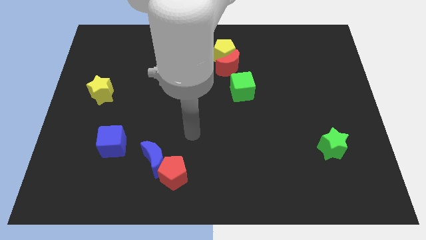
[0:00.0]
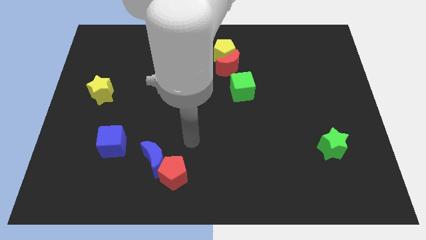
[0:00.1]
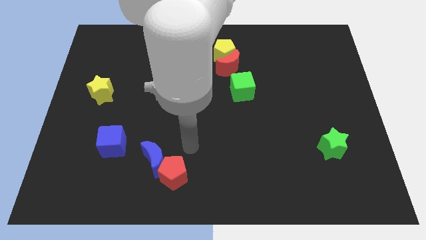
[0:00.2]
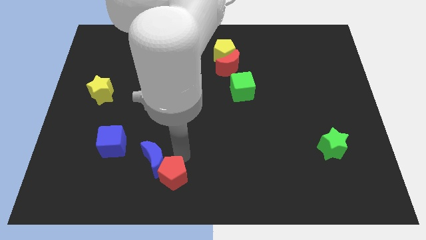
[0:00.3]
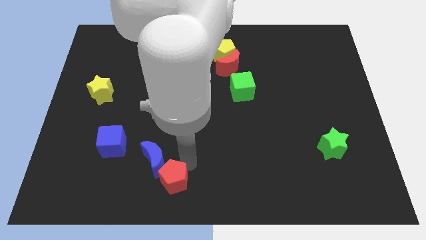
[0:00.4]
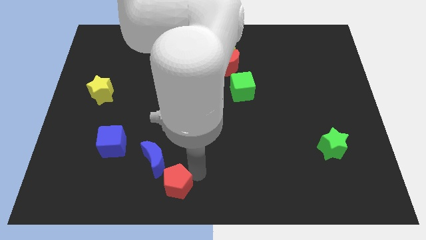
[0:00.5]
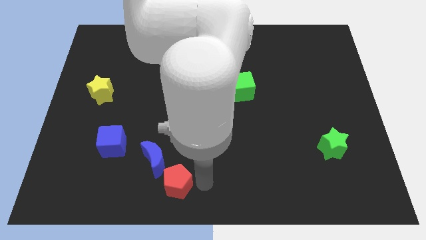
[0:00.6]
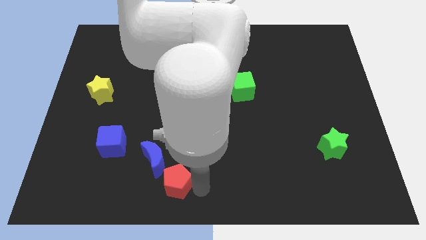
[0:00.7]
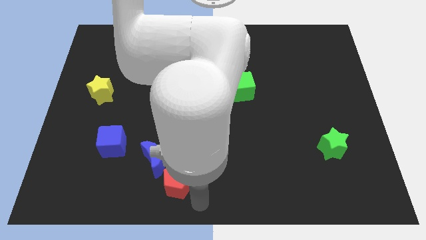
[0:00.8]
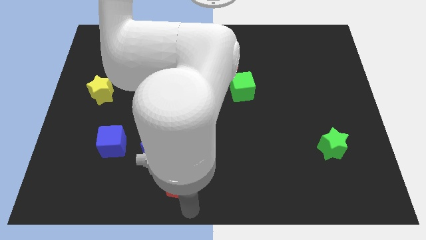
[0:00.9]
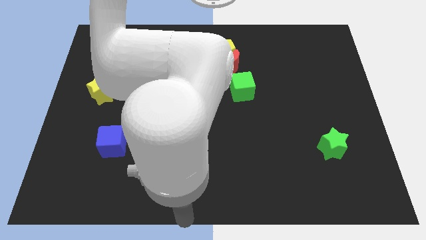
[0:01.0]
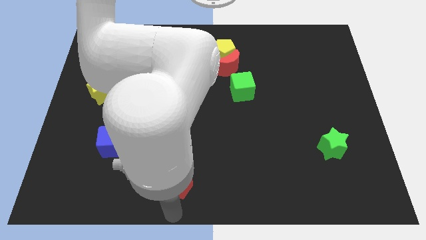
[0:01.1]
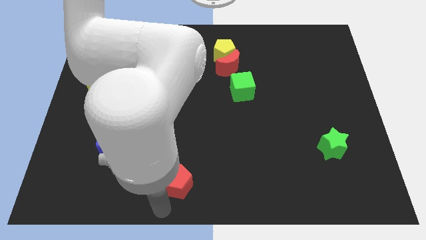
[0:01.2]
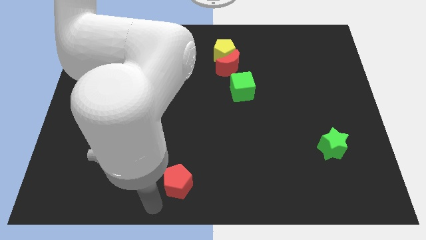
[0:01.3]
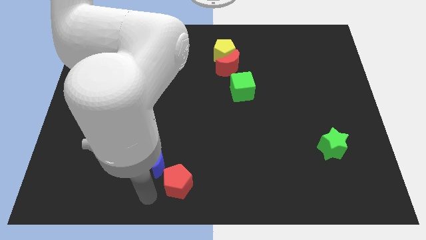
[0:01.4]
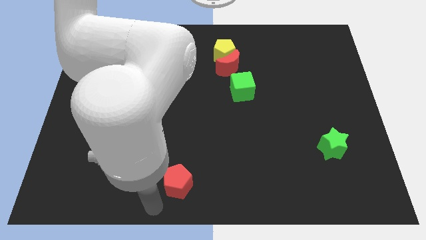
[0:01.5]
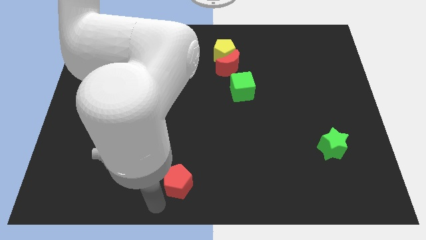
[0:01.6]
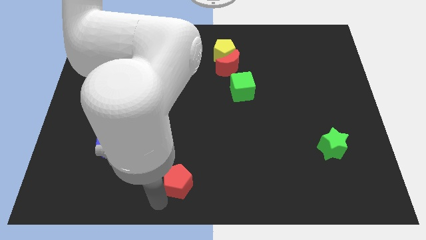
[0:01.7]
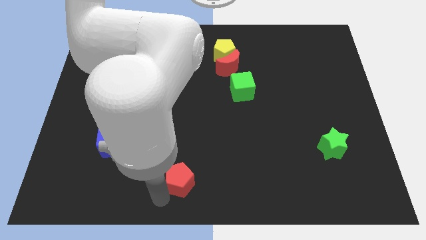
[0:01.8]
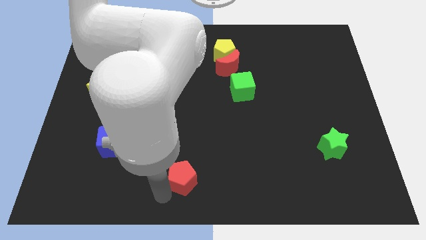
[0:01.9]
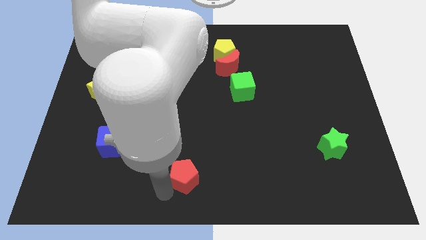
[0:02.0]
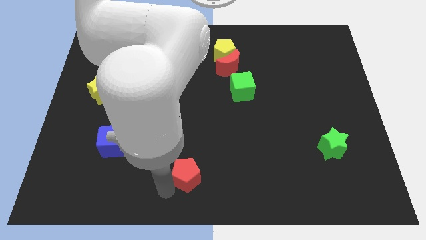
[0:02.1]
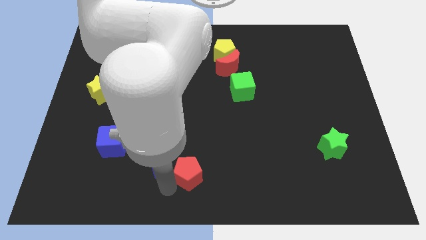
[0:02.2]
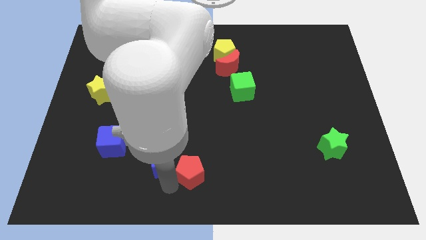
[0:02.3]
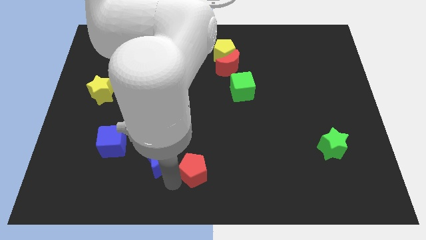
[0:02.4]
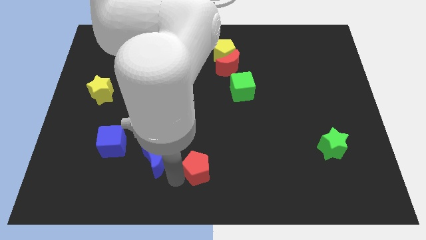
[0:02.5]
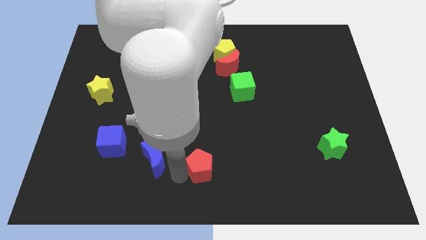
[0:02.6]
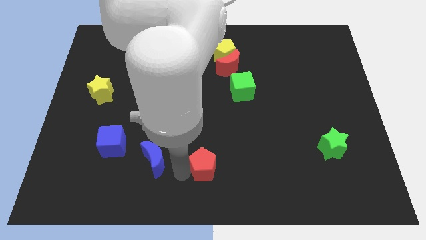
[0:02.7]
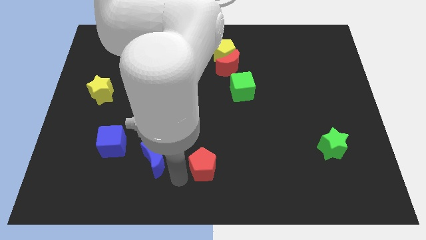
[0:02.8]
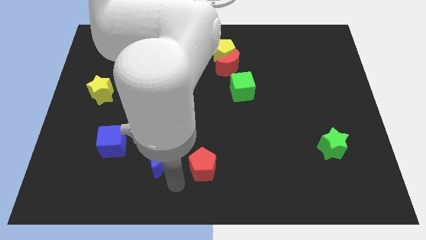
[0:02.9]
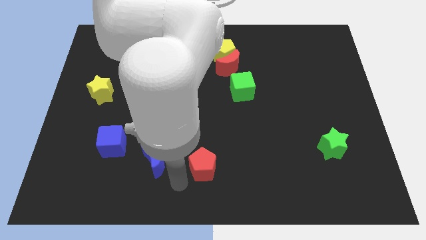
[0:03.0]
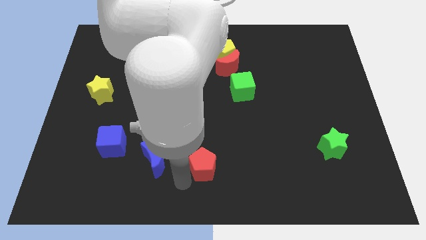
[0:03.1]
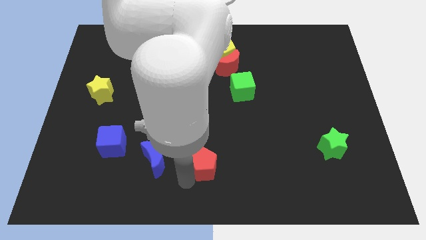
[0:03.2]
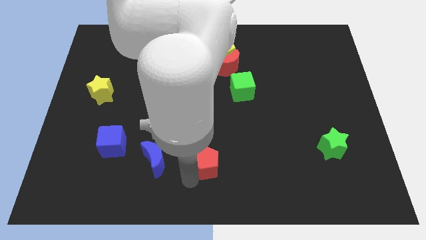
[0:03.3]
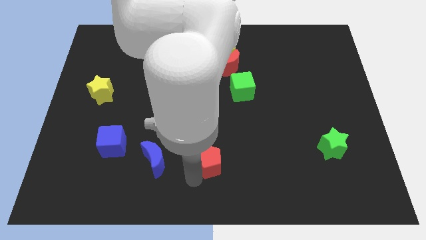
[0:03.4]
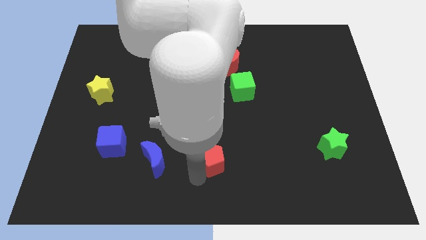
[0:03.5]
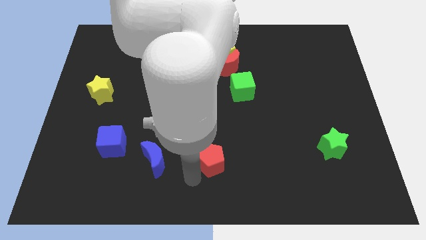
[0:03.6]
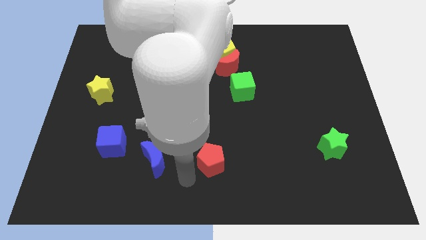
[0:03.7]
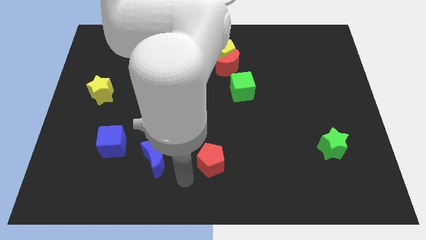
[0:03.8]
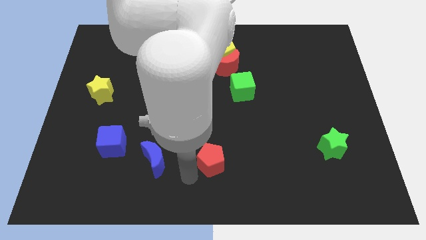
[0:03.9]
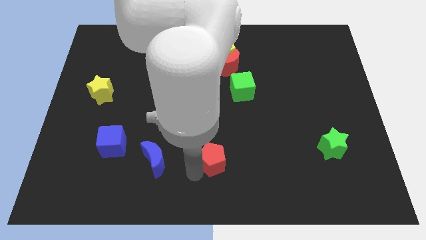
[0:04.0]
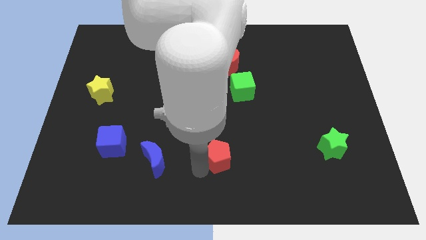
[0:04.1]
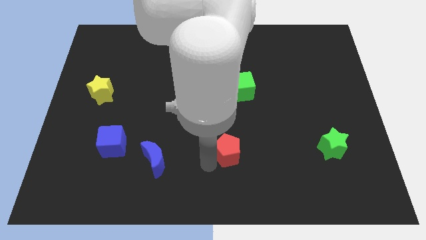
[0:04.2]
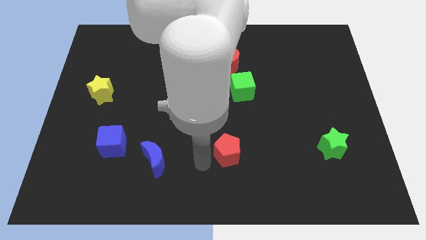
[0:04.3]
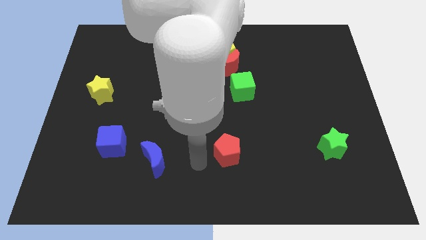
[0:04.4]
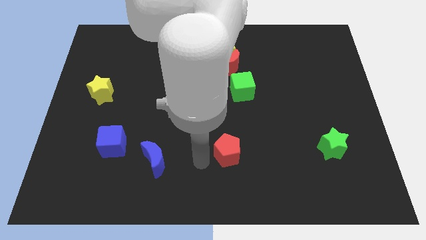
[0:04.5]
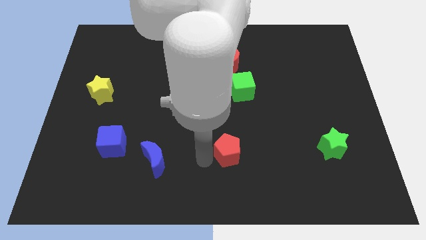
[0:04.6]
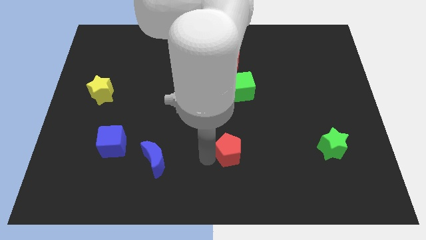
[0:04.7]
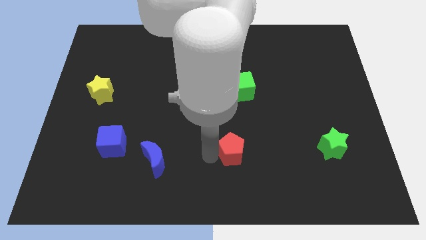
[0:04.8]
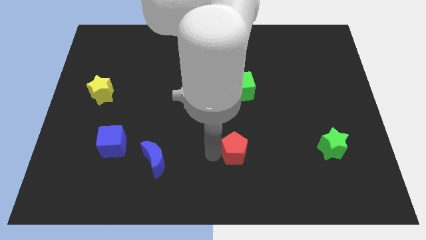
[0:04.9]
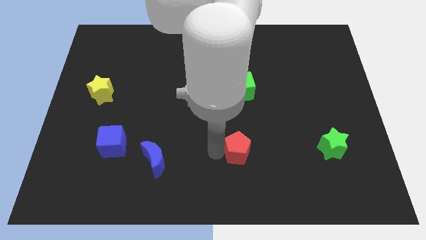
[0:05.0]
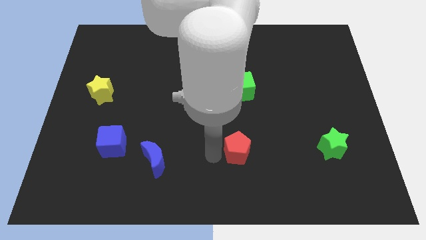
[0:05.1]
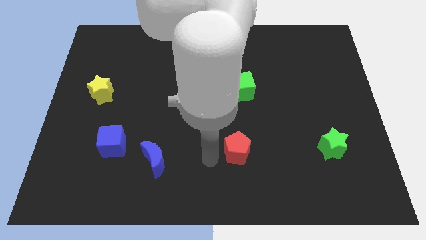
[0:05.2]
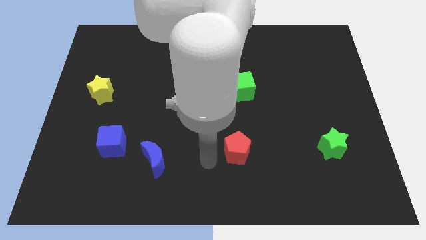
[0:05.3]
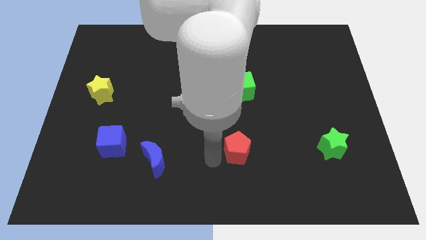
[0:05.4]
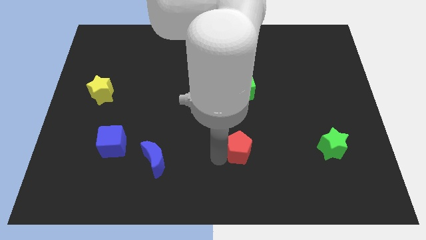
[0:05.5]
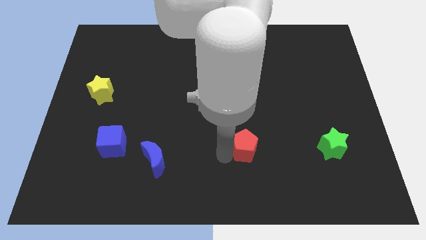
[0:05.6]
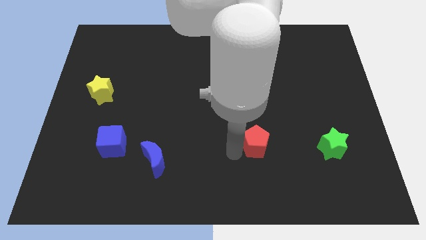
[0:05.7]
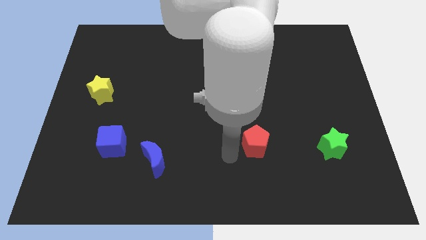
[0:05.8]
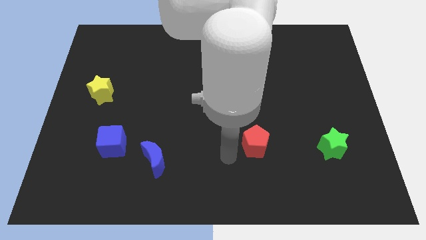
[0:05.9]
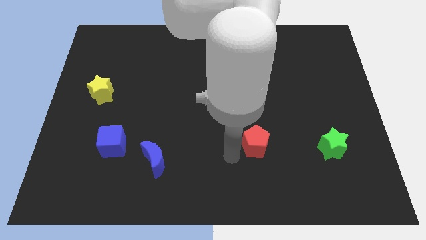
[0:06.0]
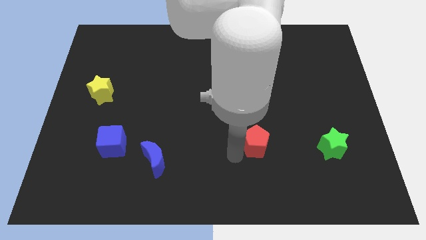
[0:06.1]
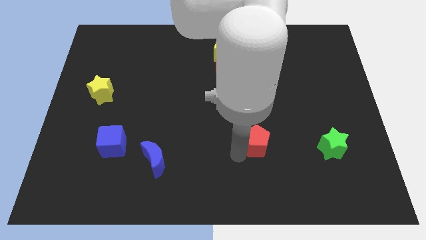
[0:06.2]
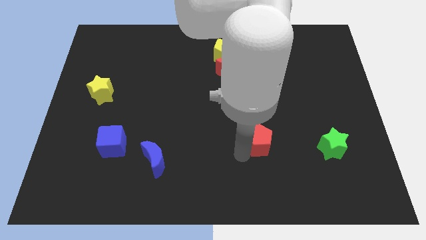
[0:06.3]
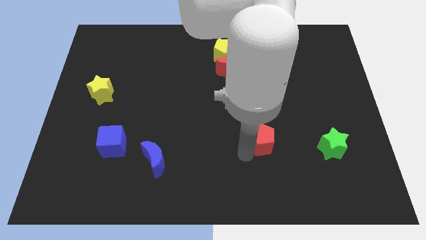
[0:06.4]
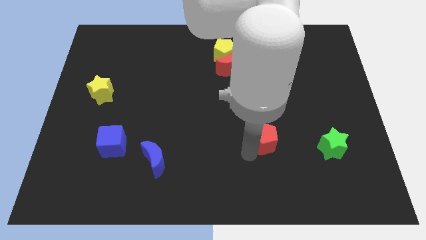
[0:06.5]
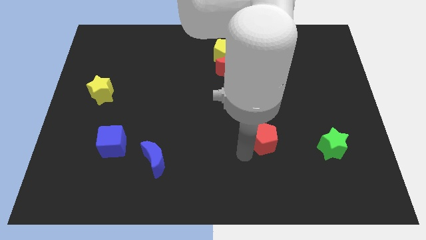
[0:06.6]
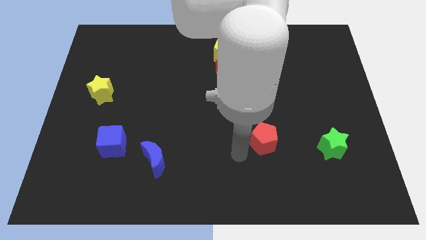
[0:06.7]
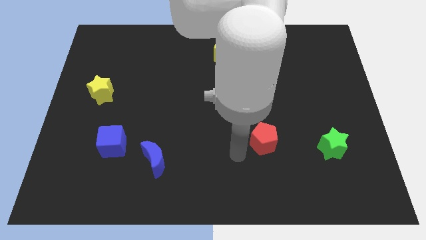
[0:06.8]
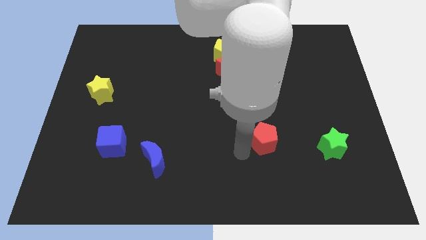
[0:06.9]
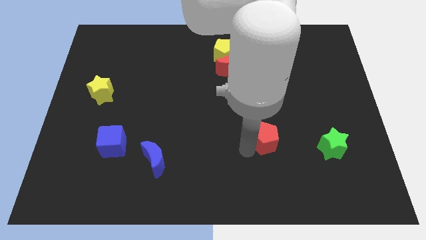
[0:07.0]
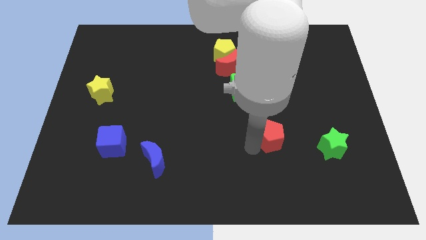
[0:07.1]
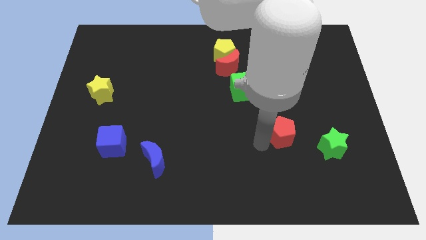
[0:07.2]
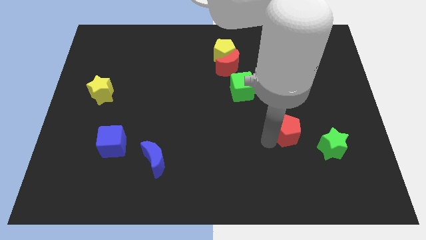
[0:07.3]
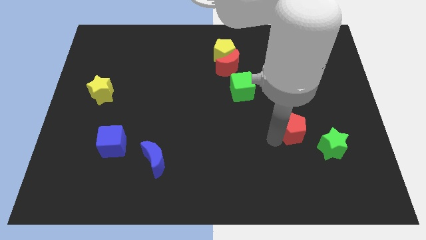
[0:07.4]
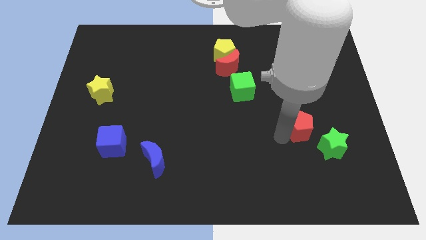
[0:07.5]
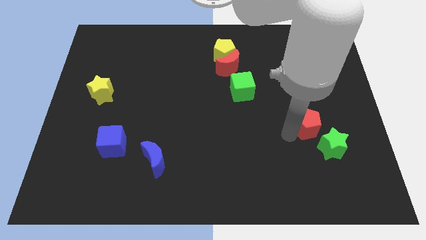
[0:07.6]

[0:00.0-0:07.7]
push the red pentagon to the top of the green star
